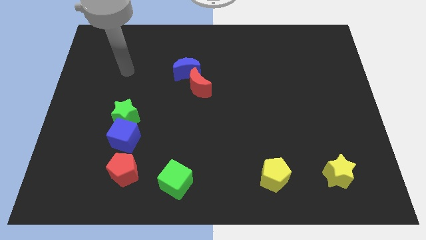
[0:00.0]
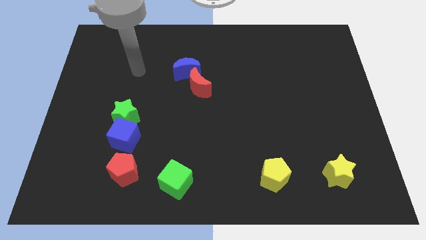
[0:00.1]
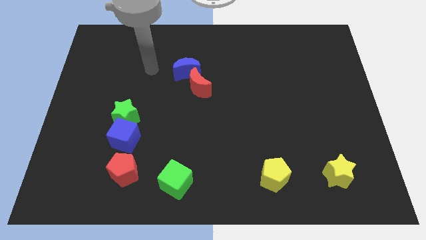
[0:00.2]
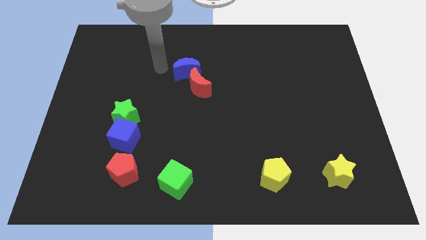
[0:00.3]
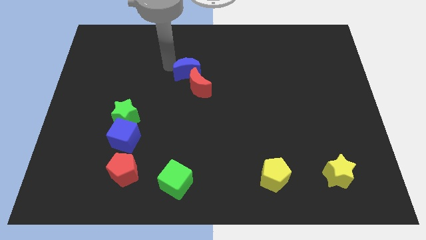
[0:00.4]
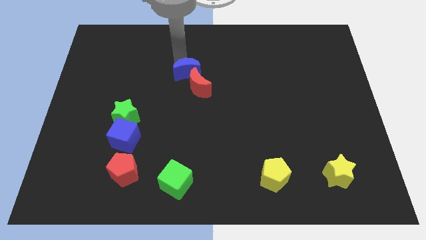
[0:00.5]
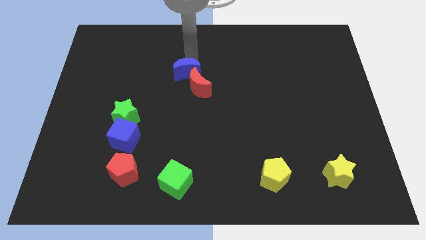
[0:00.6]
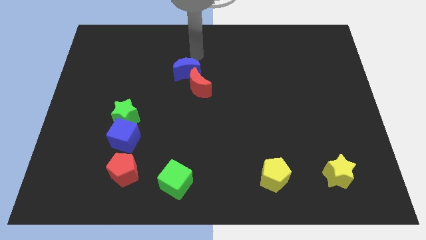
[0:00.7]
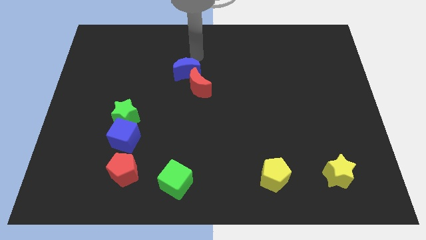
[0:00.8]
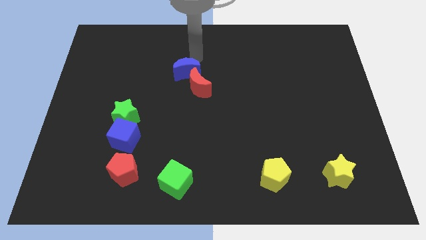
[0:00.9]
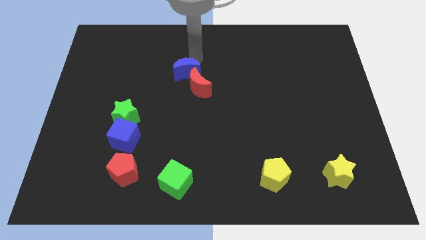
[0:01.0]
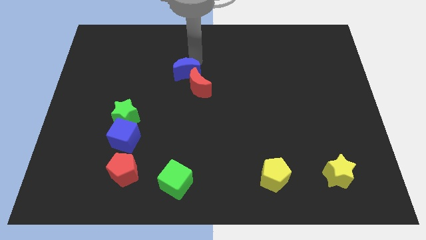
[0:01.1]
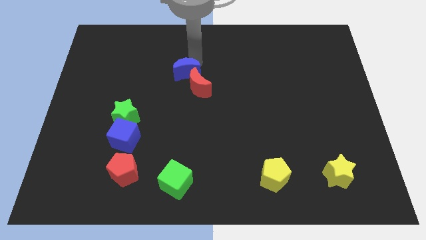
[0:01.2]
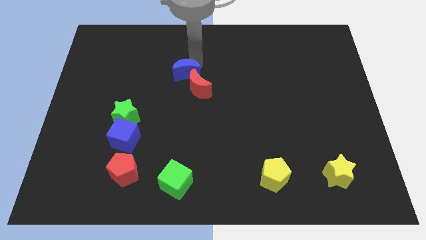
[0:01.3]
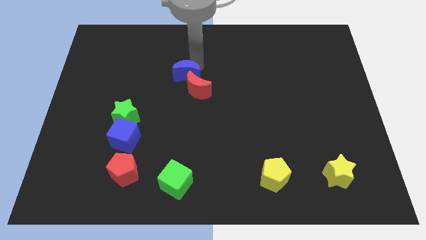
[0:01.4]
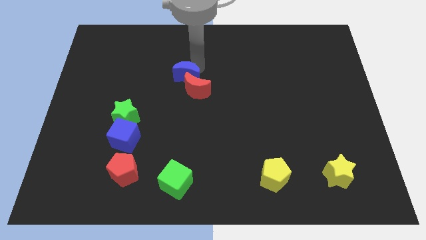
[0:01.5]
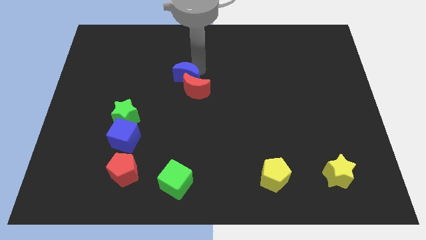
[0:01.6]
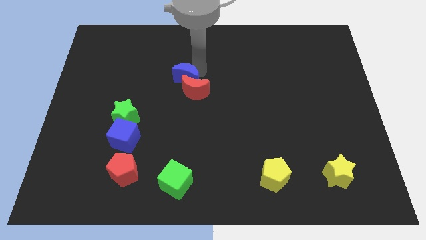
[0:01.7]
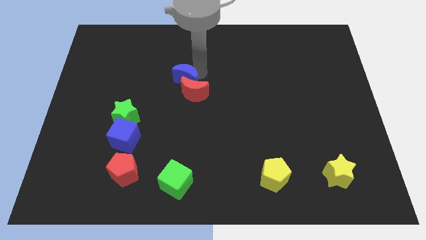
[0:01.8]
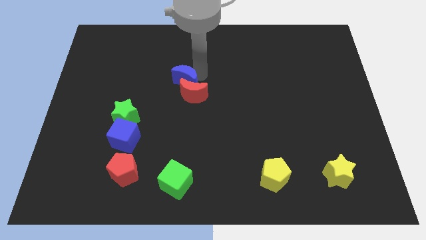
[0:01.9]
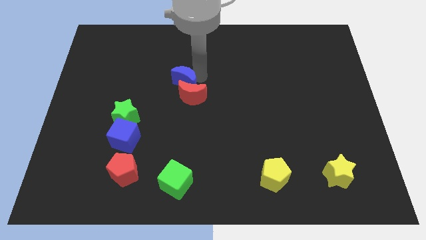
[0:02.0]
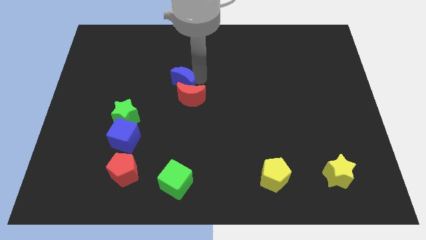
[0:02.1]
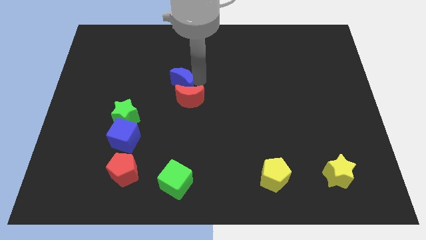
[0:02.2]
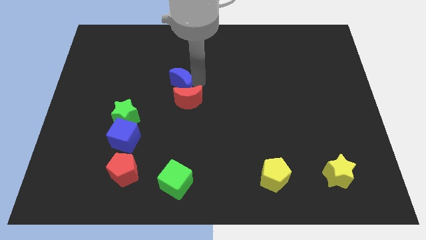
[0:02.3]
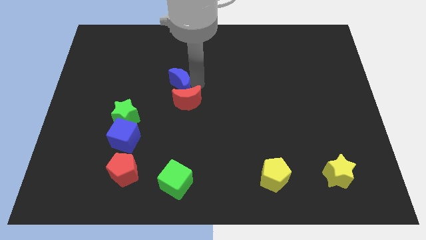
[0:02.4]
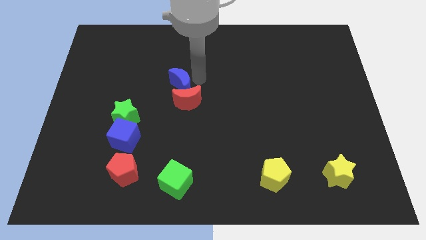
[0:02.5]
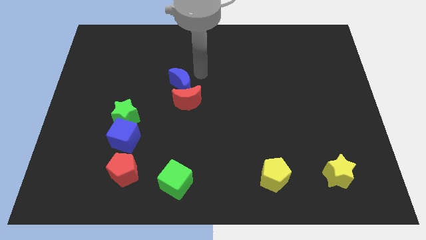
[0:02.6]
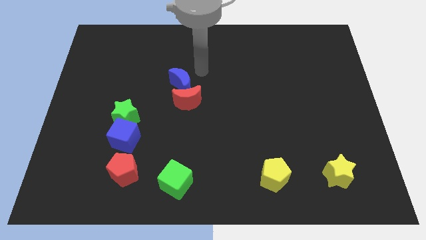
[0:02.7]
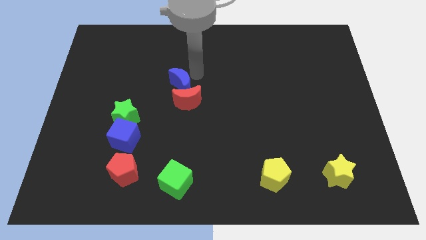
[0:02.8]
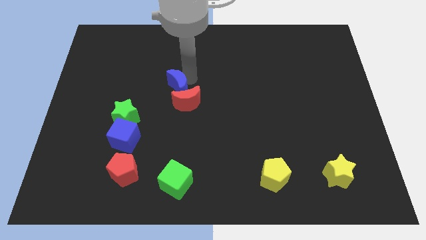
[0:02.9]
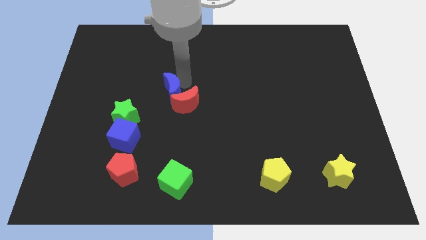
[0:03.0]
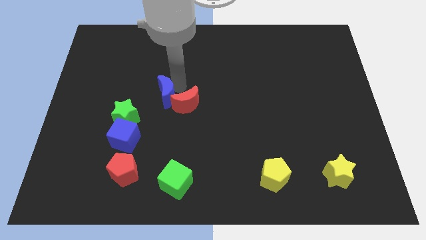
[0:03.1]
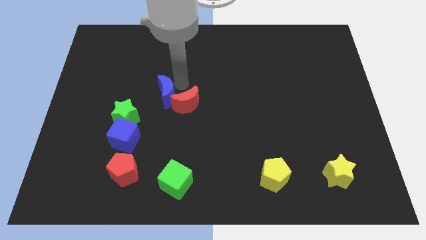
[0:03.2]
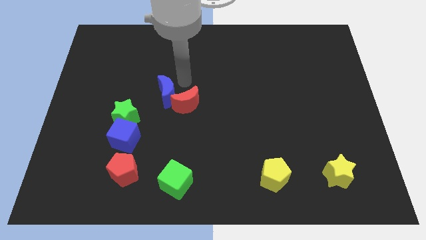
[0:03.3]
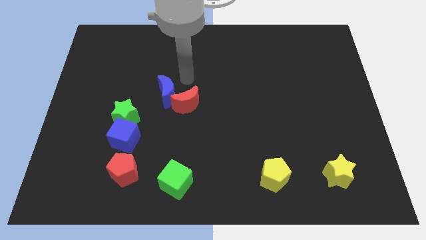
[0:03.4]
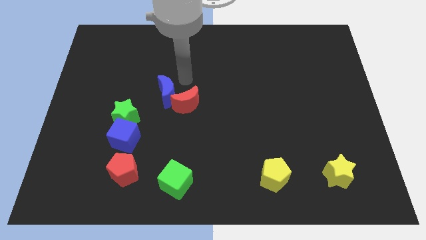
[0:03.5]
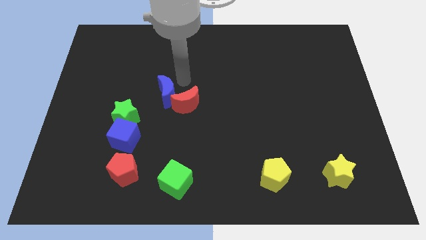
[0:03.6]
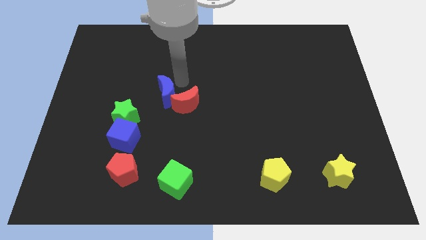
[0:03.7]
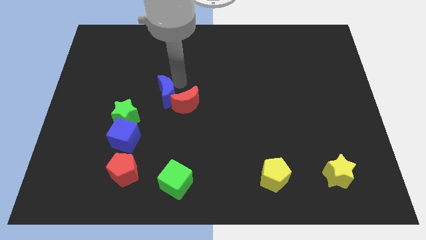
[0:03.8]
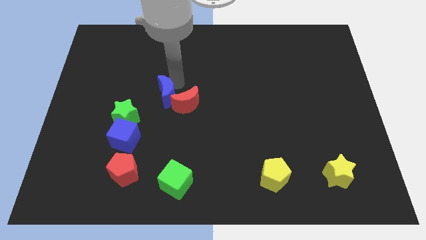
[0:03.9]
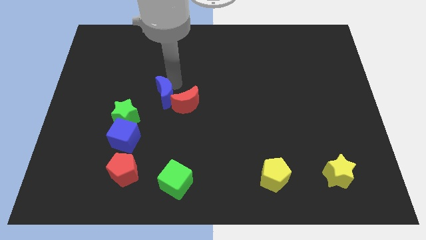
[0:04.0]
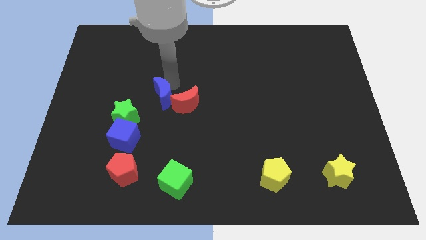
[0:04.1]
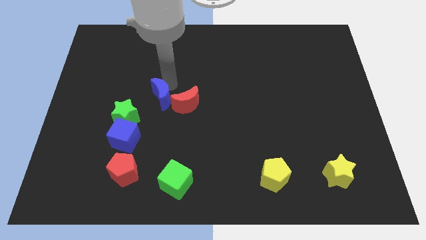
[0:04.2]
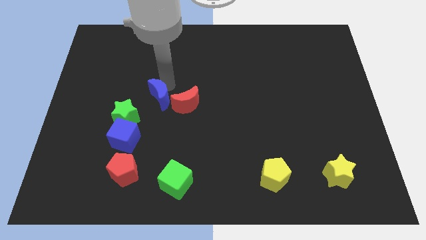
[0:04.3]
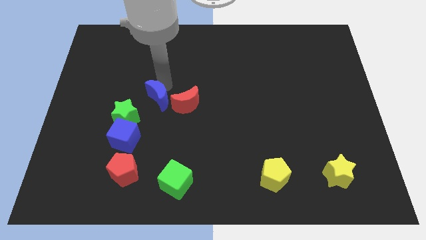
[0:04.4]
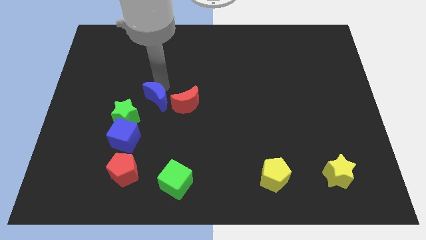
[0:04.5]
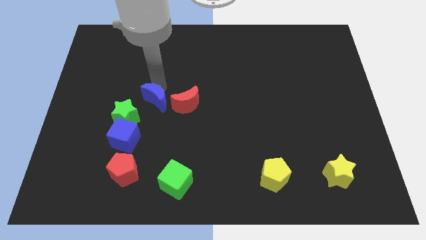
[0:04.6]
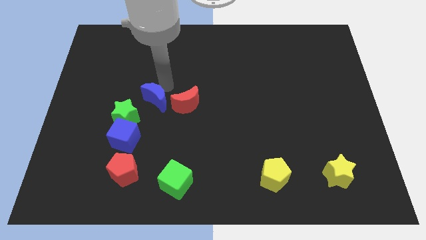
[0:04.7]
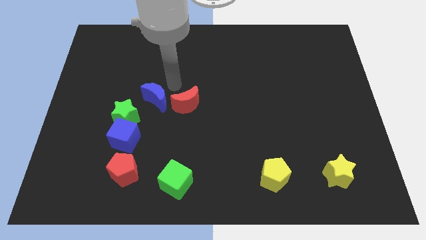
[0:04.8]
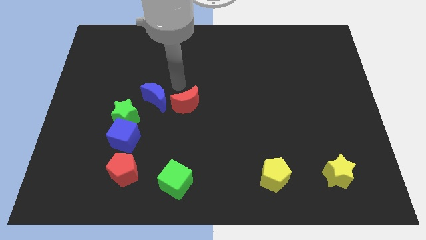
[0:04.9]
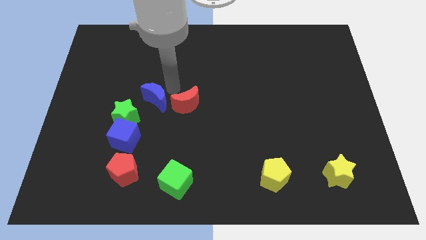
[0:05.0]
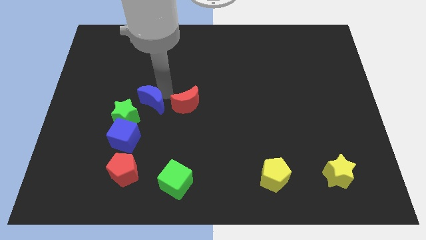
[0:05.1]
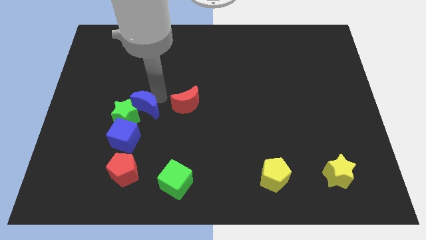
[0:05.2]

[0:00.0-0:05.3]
push the blue moon close to the green star

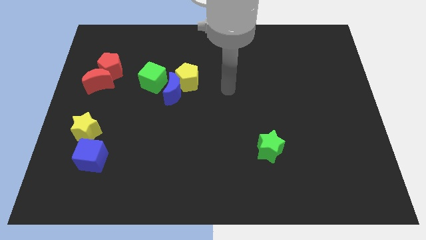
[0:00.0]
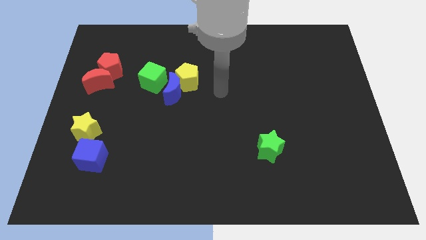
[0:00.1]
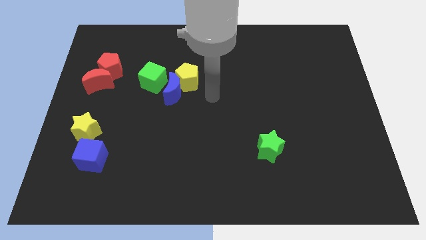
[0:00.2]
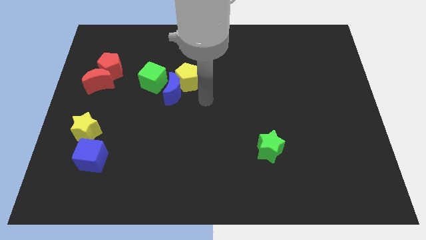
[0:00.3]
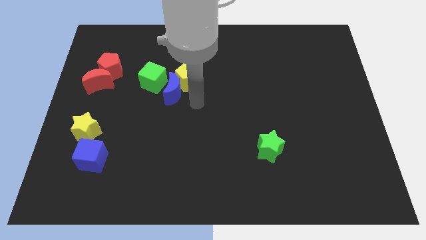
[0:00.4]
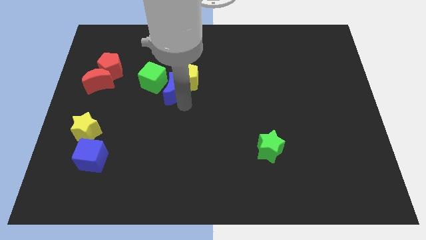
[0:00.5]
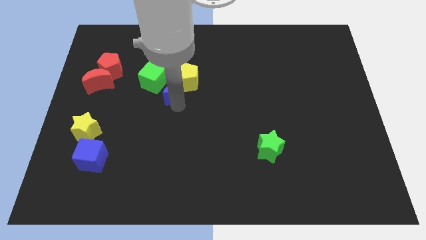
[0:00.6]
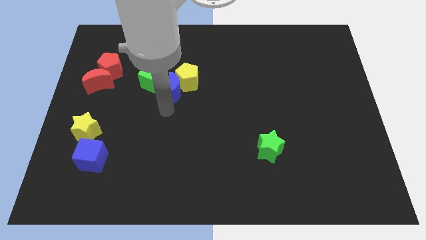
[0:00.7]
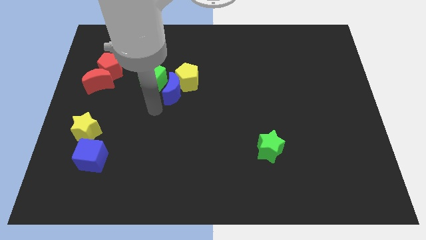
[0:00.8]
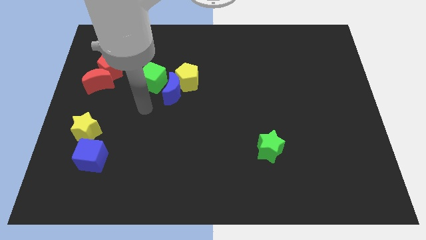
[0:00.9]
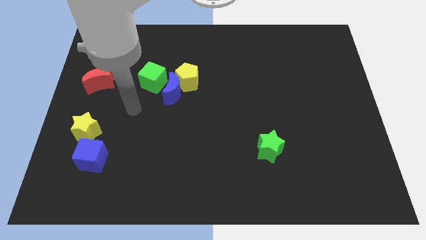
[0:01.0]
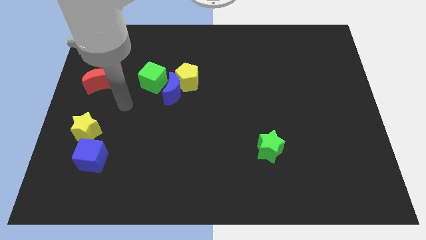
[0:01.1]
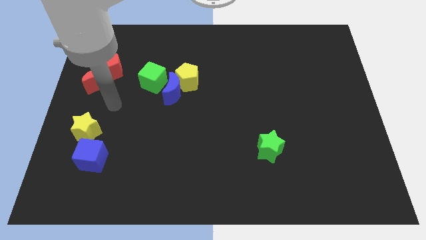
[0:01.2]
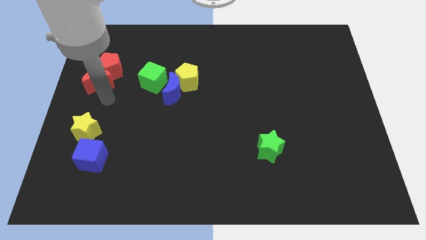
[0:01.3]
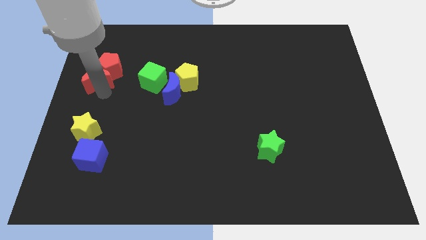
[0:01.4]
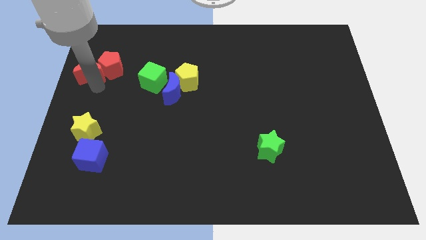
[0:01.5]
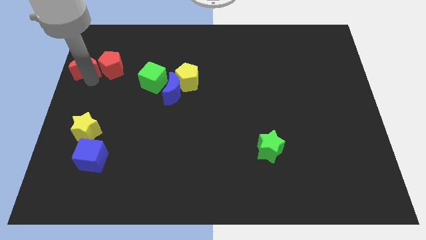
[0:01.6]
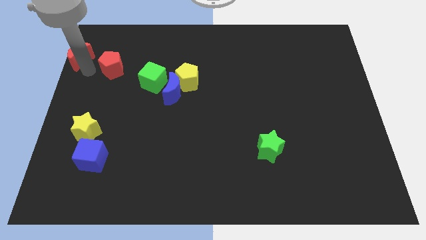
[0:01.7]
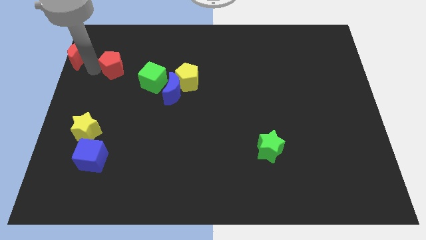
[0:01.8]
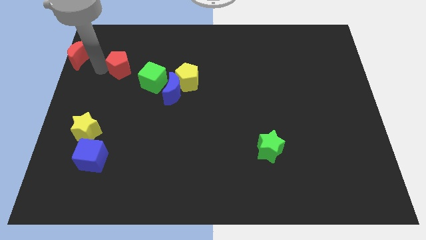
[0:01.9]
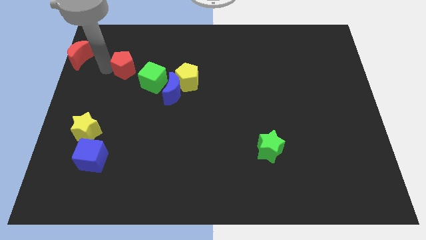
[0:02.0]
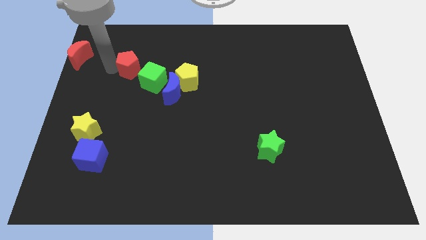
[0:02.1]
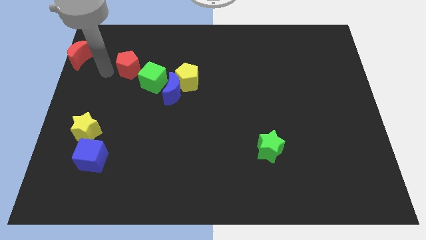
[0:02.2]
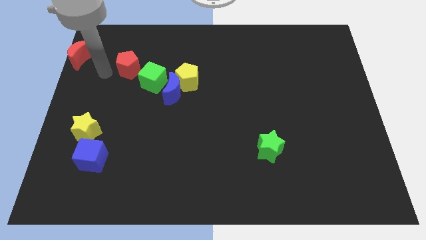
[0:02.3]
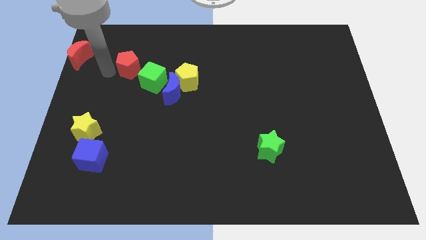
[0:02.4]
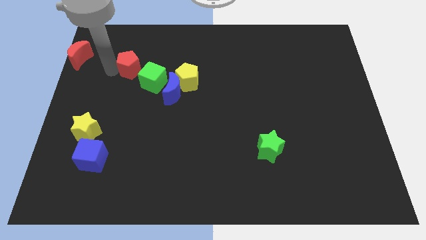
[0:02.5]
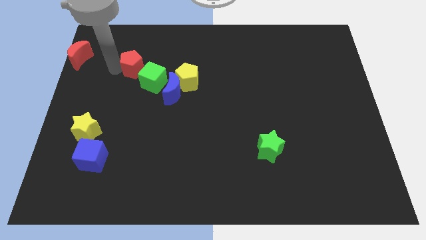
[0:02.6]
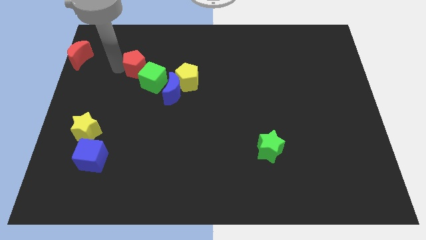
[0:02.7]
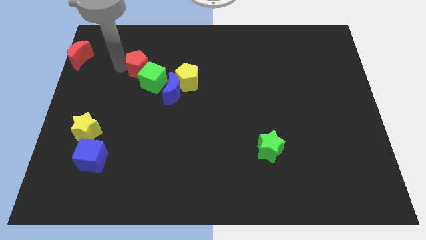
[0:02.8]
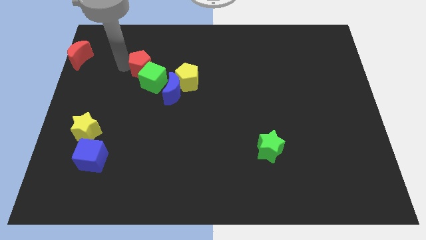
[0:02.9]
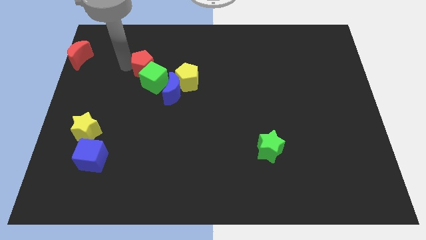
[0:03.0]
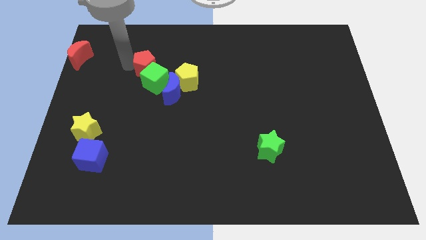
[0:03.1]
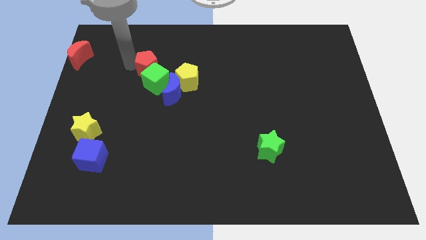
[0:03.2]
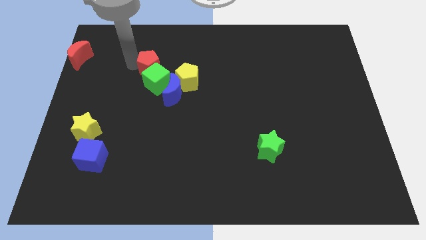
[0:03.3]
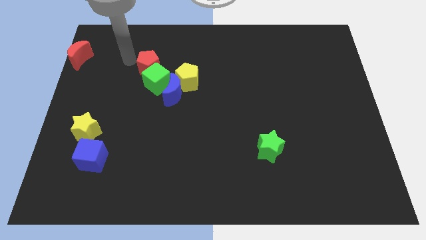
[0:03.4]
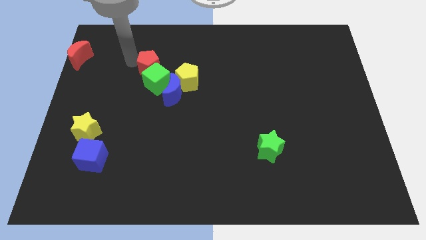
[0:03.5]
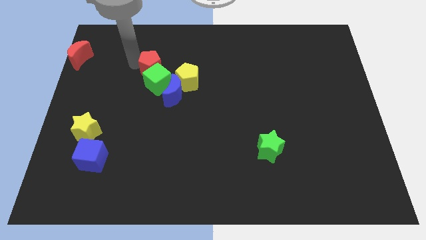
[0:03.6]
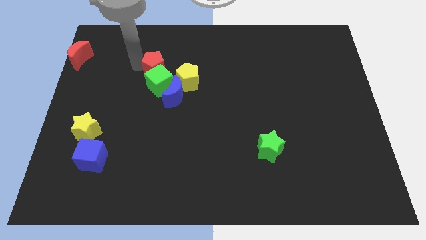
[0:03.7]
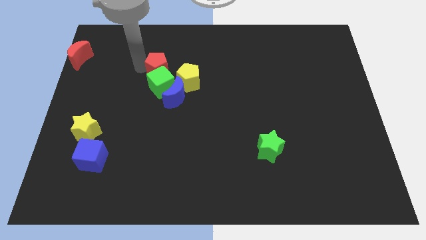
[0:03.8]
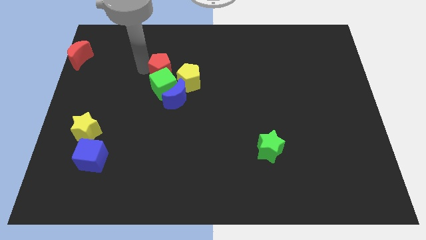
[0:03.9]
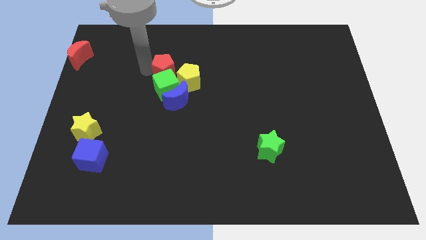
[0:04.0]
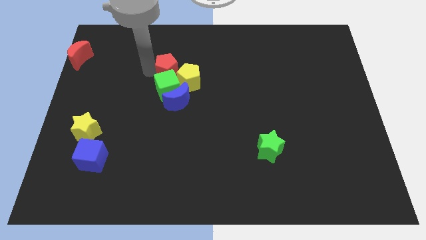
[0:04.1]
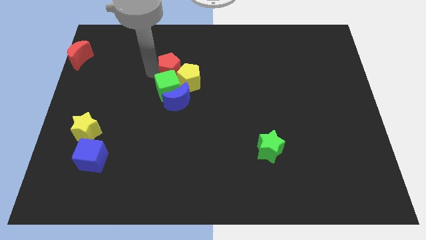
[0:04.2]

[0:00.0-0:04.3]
slide the red pentagon to the yellow pentagon
